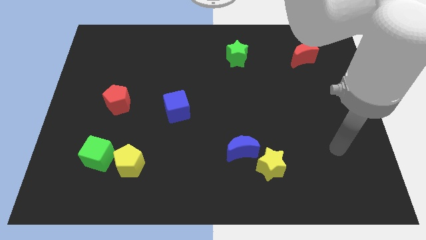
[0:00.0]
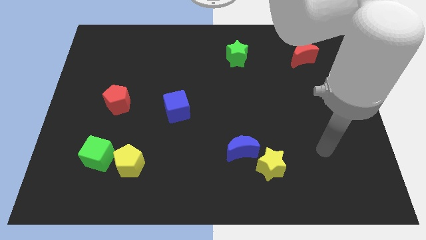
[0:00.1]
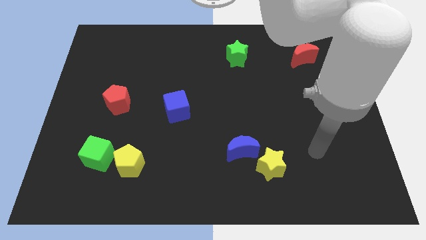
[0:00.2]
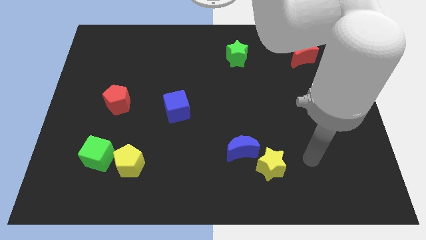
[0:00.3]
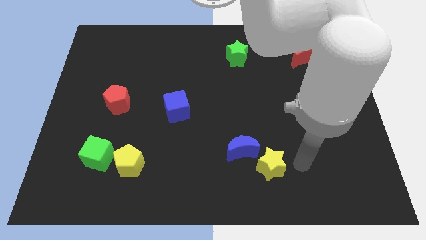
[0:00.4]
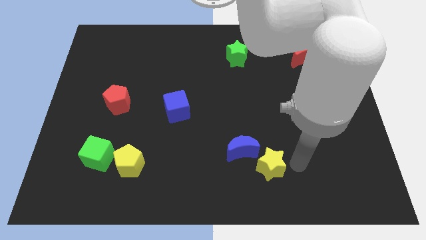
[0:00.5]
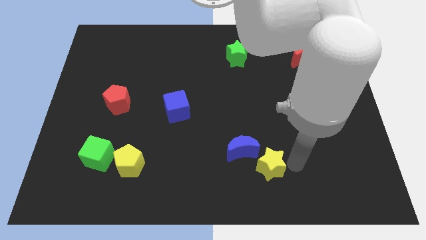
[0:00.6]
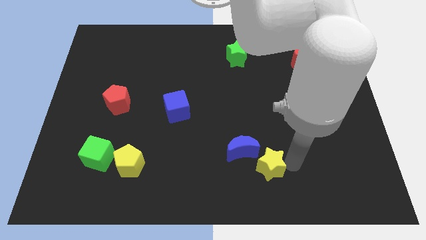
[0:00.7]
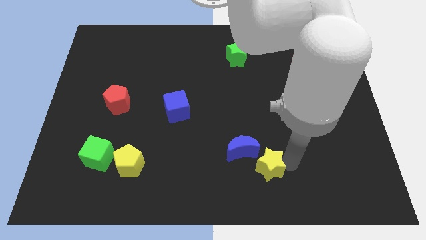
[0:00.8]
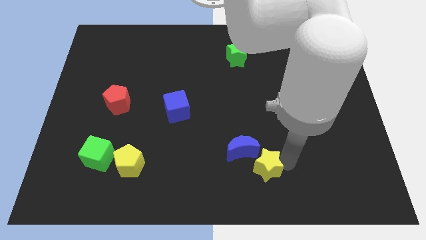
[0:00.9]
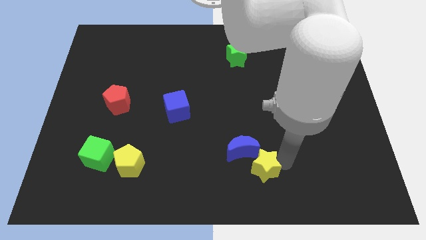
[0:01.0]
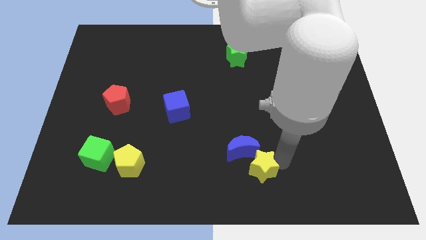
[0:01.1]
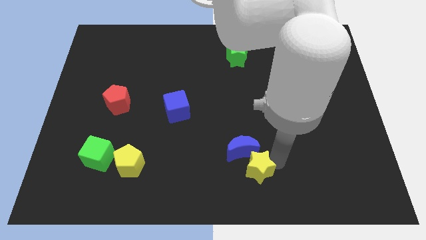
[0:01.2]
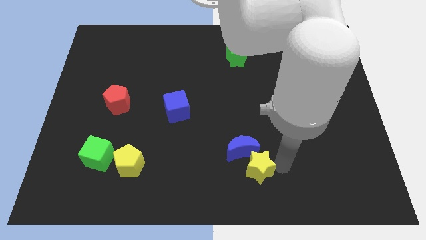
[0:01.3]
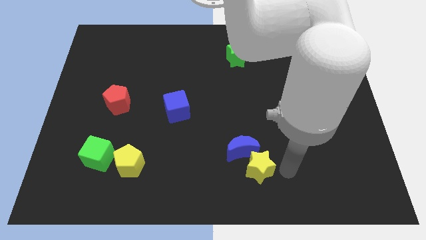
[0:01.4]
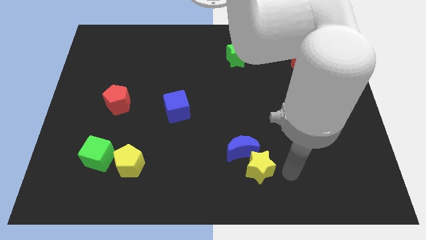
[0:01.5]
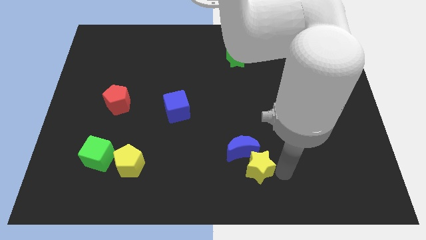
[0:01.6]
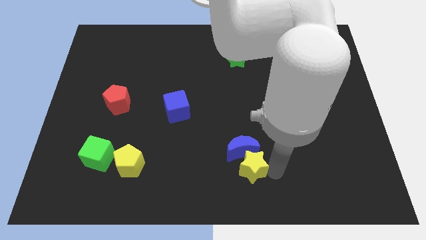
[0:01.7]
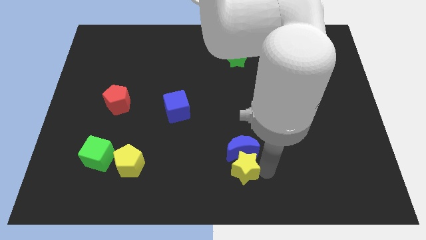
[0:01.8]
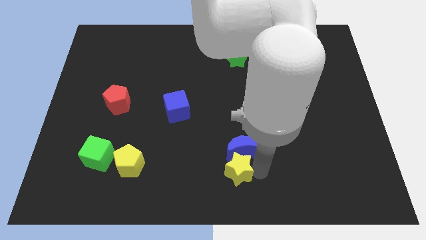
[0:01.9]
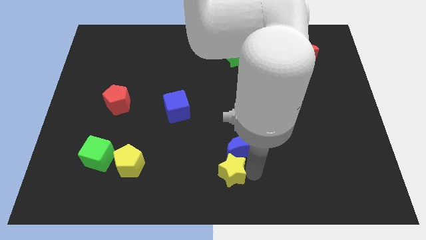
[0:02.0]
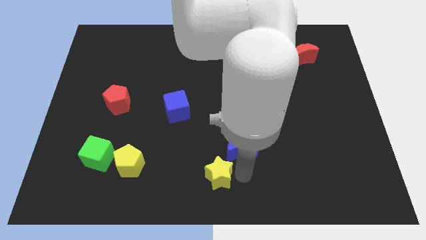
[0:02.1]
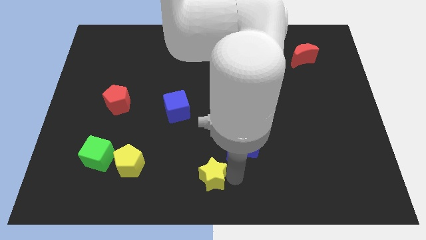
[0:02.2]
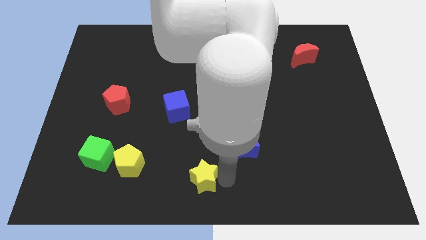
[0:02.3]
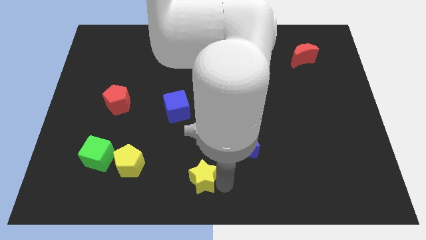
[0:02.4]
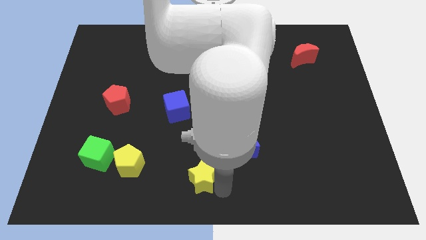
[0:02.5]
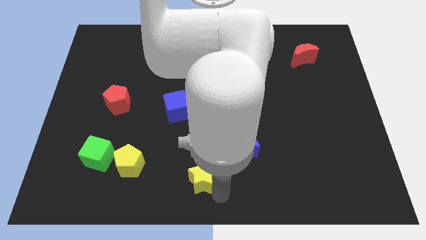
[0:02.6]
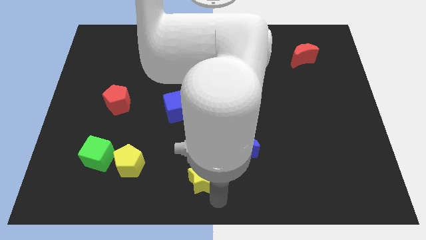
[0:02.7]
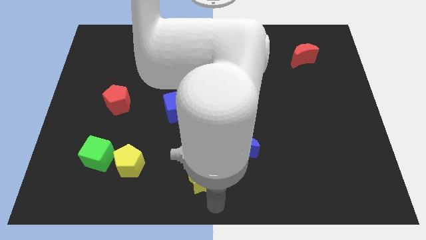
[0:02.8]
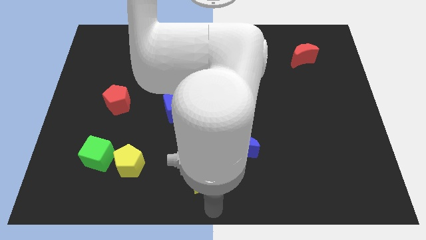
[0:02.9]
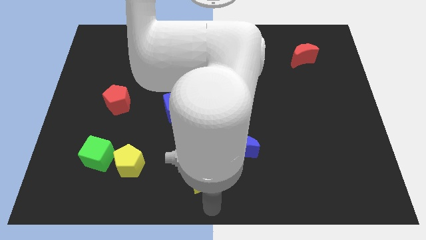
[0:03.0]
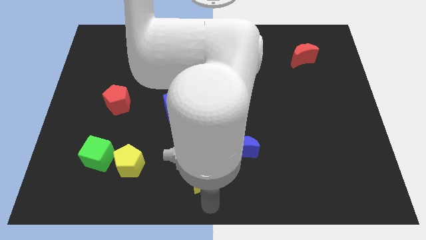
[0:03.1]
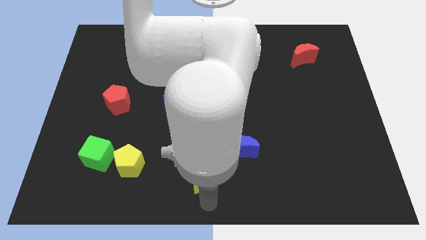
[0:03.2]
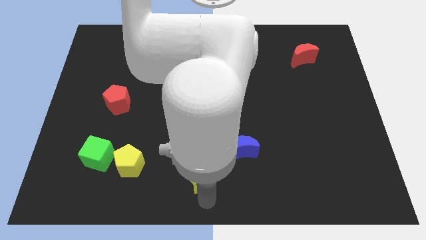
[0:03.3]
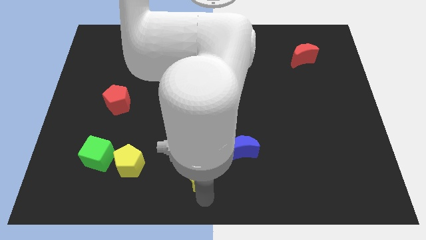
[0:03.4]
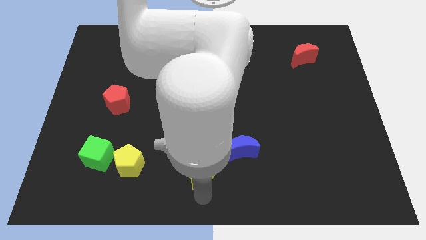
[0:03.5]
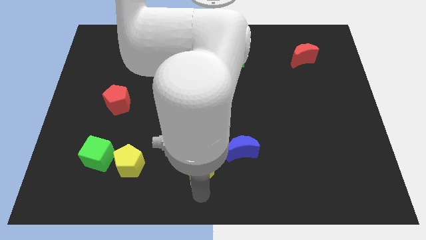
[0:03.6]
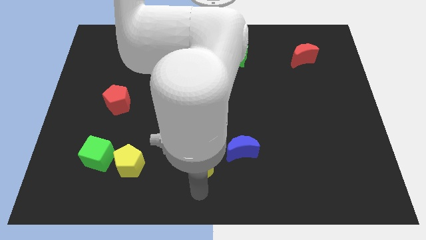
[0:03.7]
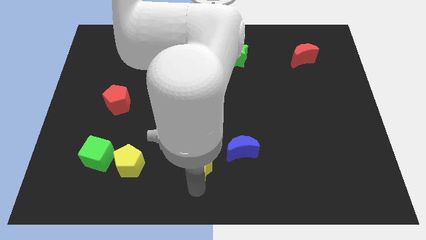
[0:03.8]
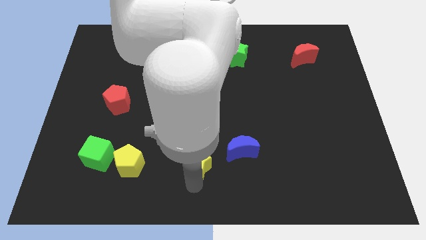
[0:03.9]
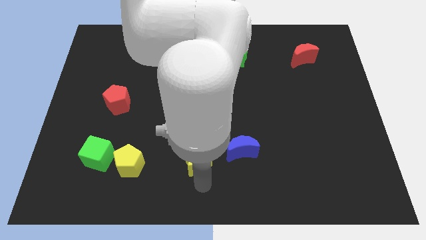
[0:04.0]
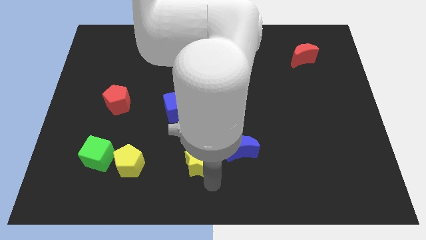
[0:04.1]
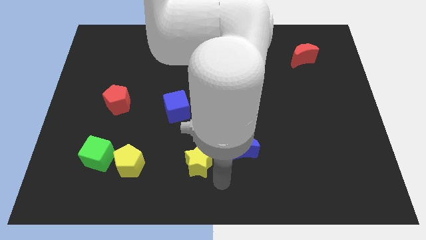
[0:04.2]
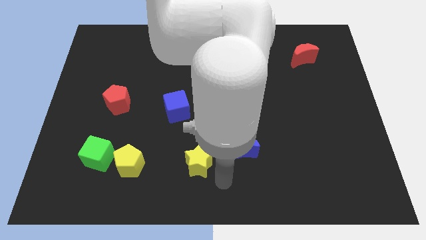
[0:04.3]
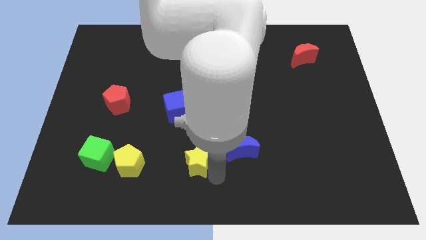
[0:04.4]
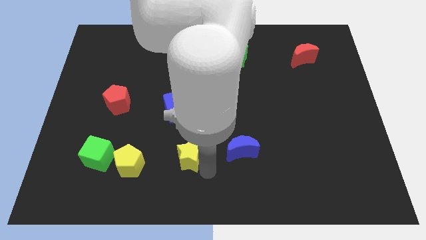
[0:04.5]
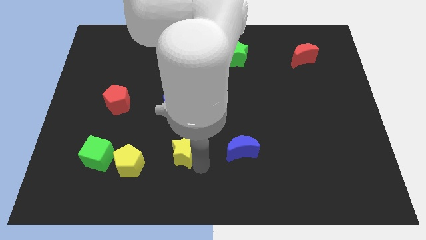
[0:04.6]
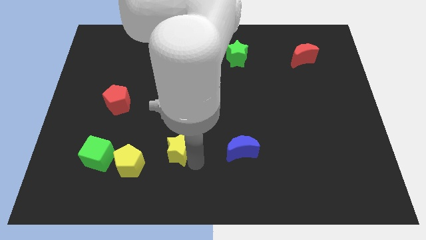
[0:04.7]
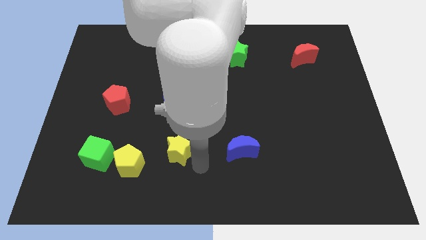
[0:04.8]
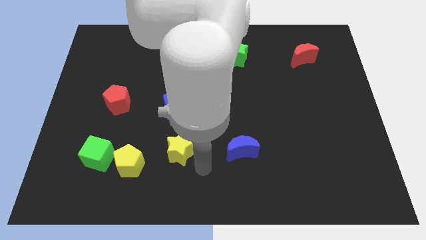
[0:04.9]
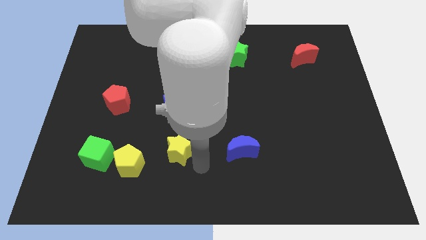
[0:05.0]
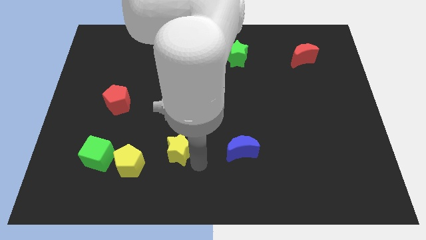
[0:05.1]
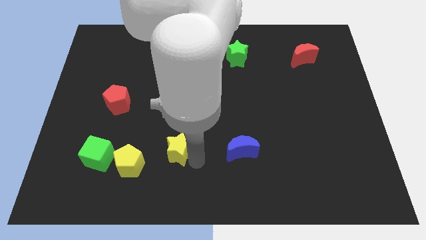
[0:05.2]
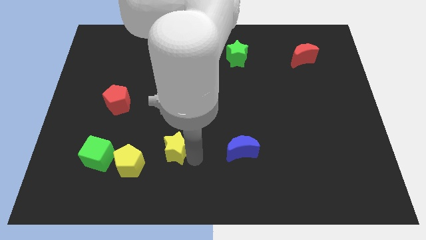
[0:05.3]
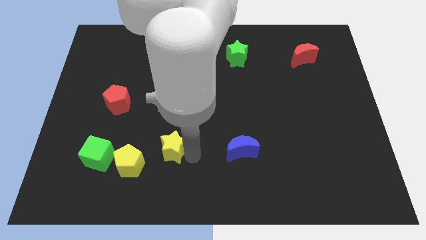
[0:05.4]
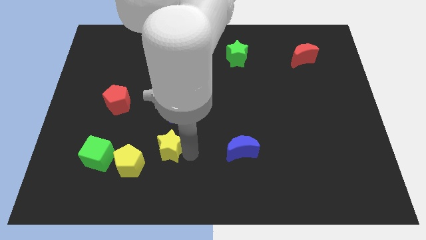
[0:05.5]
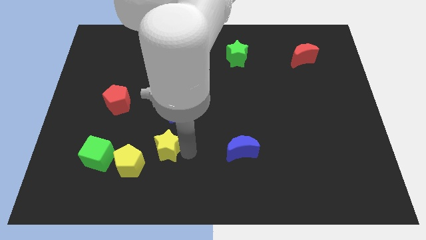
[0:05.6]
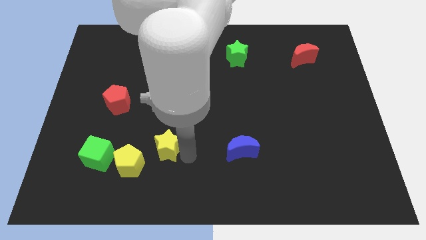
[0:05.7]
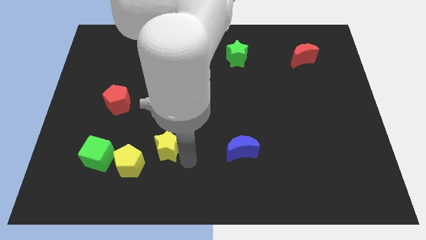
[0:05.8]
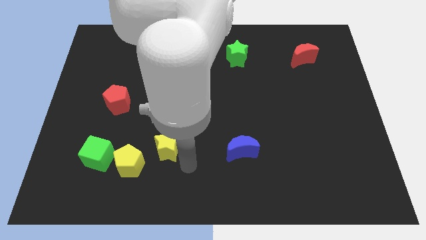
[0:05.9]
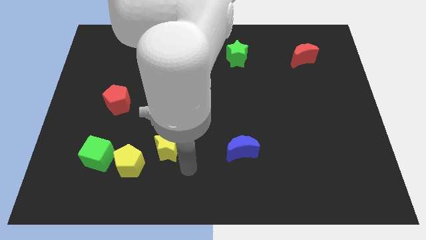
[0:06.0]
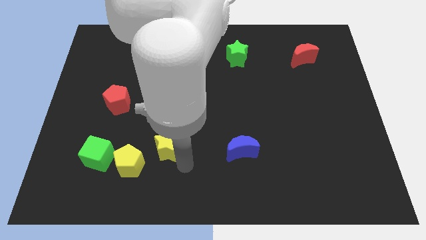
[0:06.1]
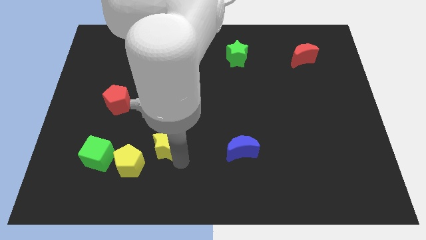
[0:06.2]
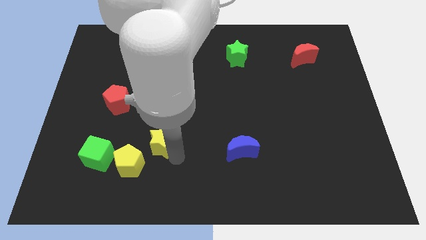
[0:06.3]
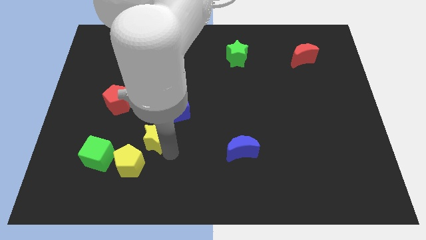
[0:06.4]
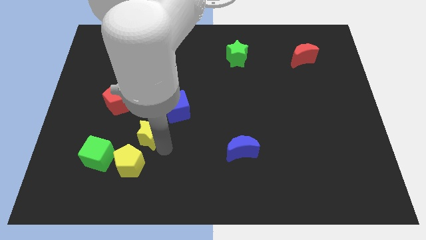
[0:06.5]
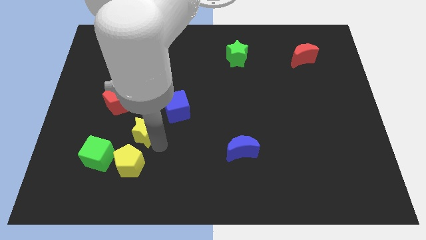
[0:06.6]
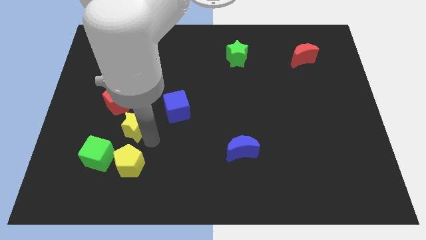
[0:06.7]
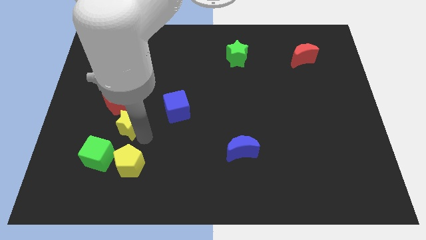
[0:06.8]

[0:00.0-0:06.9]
slide the yellow star to the left side of the blue cube
